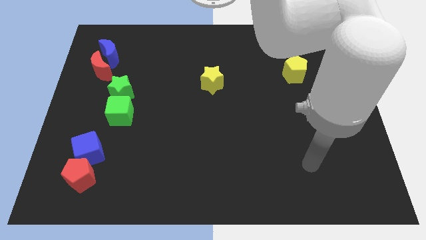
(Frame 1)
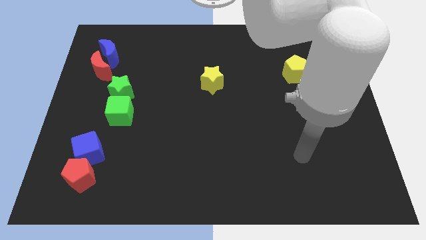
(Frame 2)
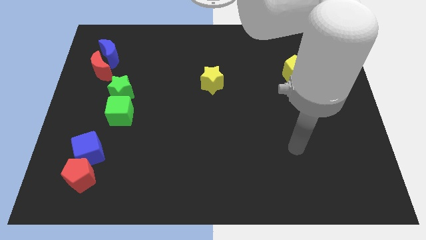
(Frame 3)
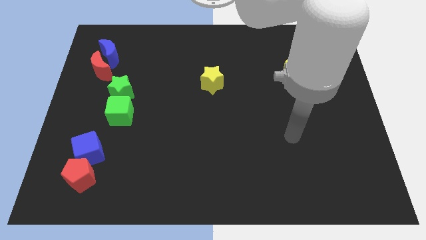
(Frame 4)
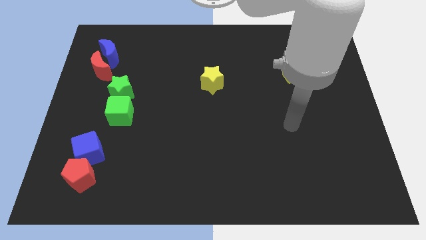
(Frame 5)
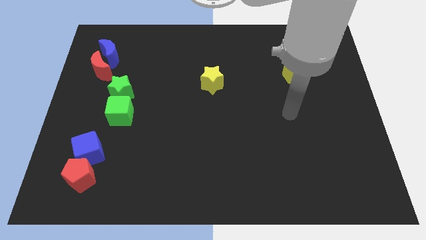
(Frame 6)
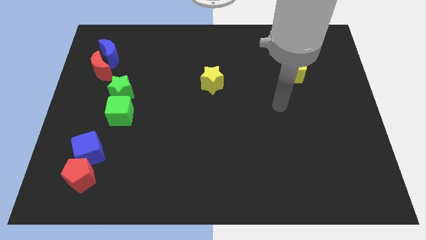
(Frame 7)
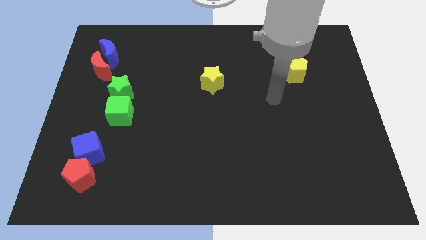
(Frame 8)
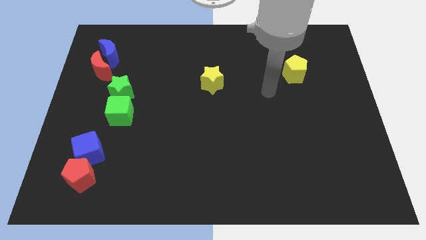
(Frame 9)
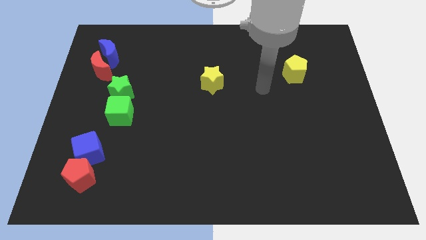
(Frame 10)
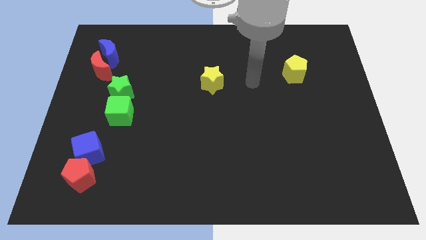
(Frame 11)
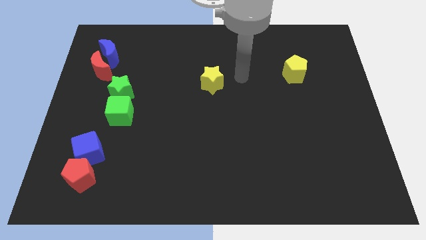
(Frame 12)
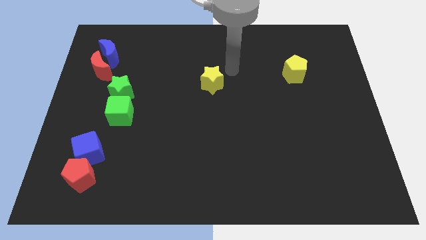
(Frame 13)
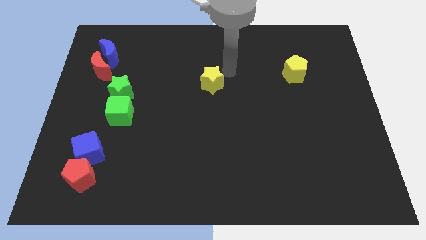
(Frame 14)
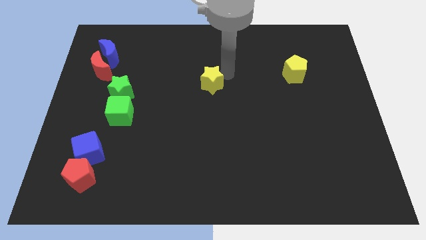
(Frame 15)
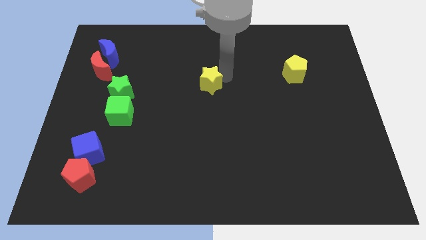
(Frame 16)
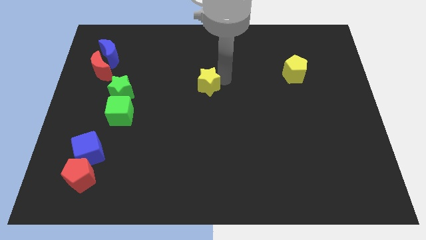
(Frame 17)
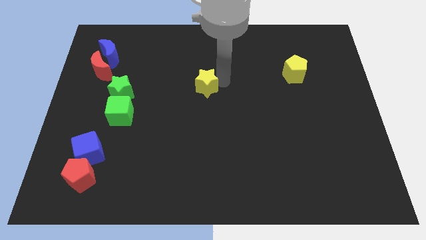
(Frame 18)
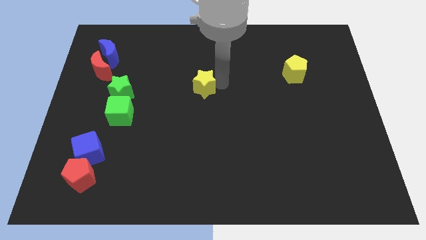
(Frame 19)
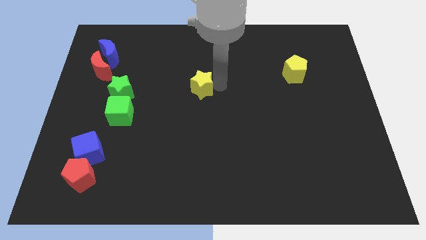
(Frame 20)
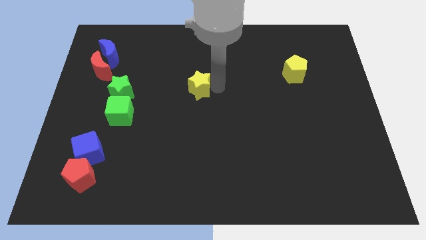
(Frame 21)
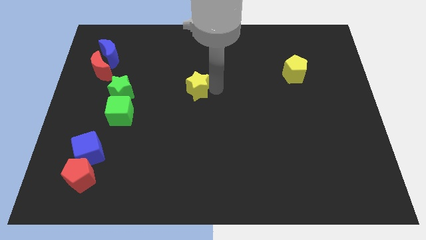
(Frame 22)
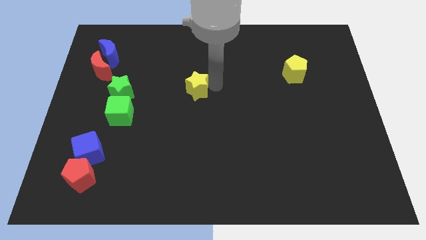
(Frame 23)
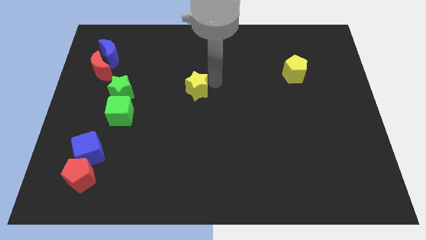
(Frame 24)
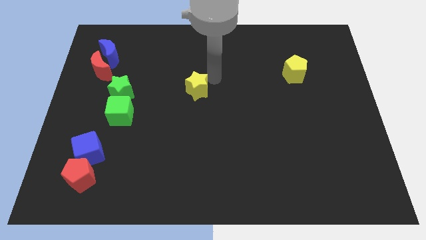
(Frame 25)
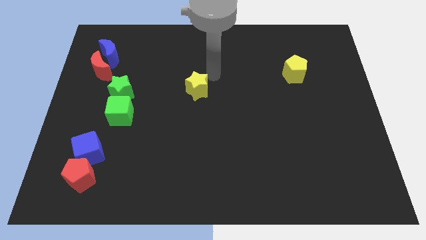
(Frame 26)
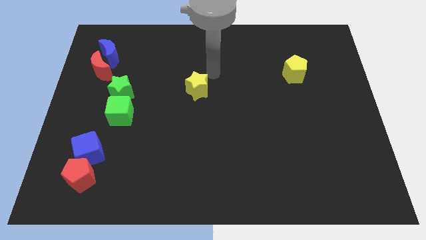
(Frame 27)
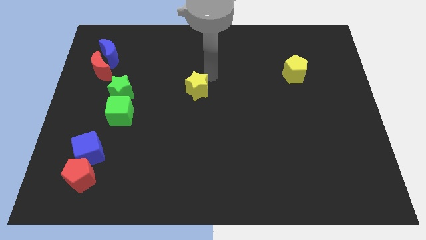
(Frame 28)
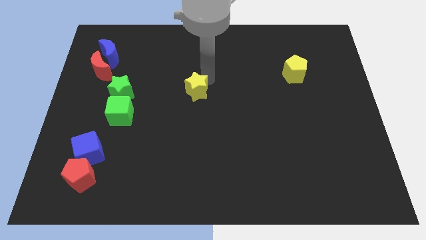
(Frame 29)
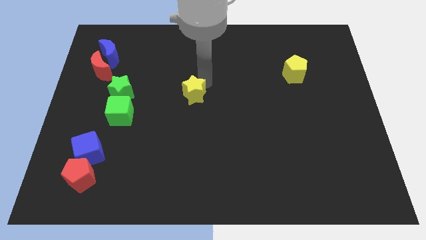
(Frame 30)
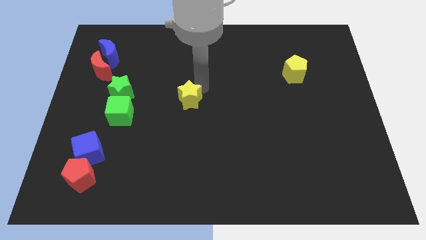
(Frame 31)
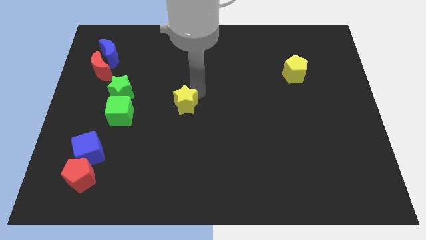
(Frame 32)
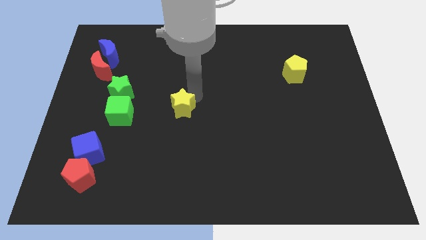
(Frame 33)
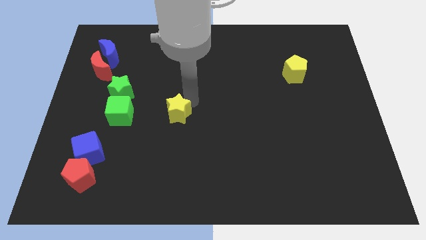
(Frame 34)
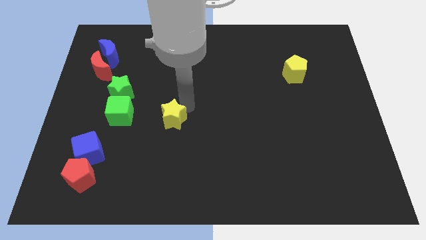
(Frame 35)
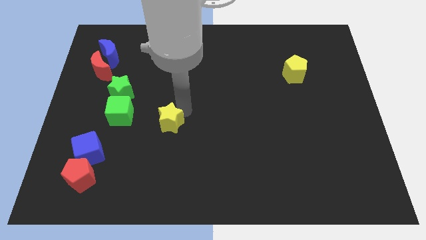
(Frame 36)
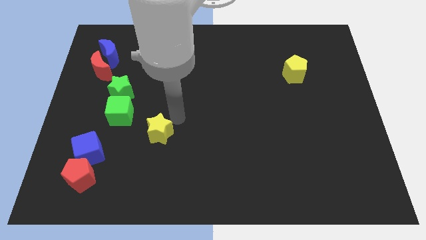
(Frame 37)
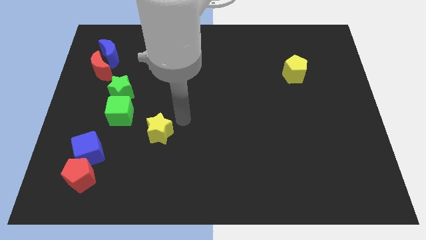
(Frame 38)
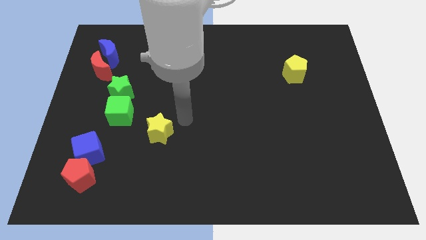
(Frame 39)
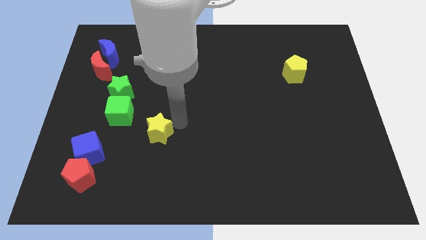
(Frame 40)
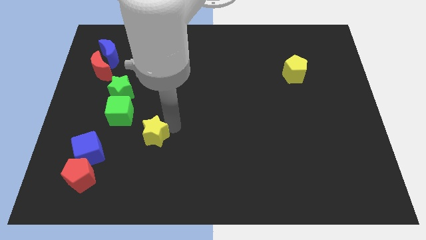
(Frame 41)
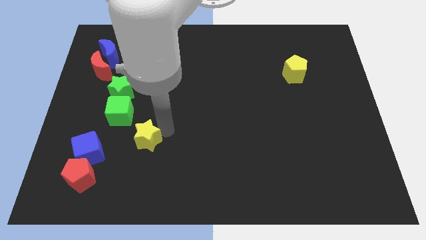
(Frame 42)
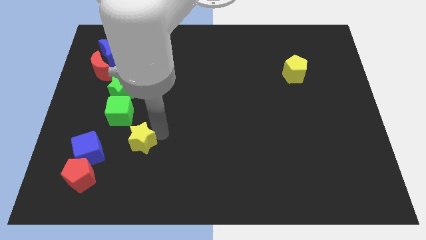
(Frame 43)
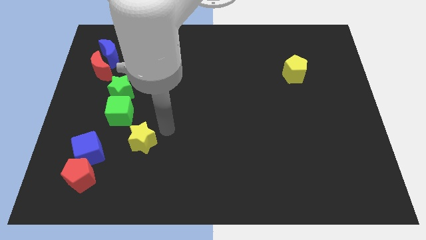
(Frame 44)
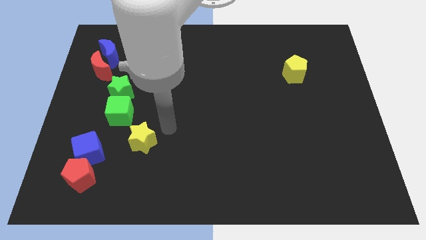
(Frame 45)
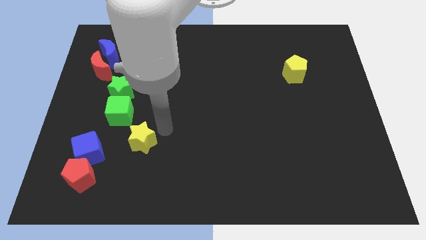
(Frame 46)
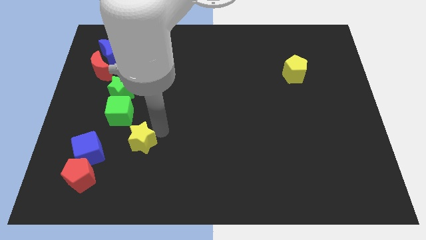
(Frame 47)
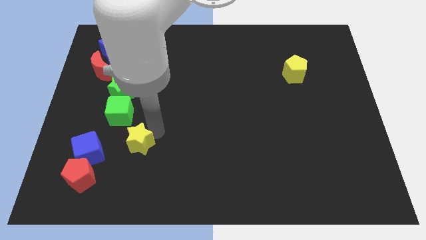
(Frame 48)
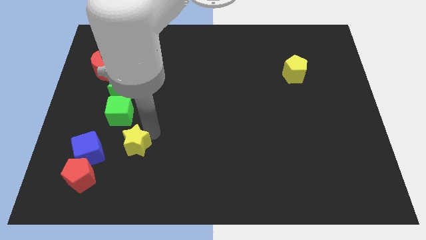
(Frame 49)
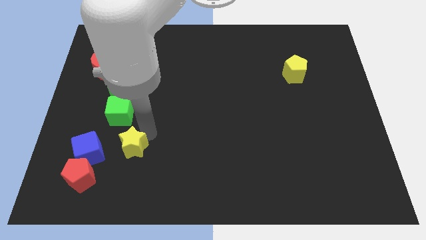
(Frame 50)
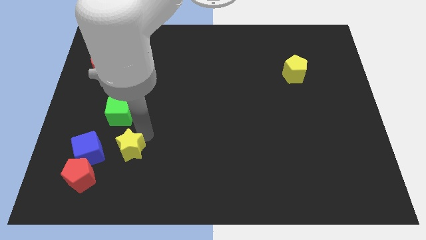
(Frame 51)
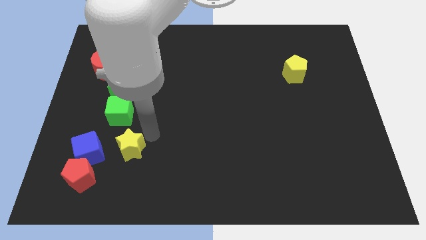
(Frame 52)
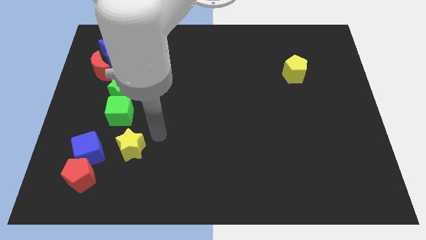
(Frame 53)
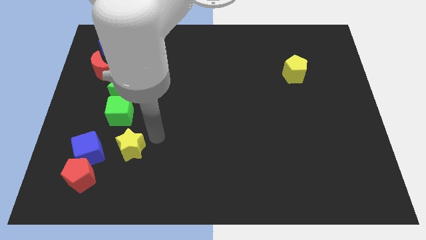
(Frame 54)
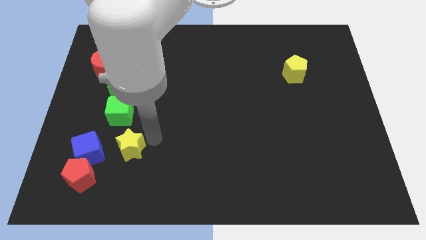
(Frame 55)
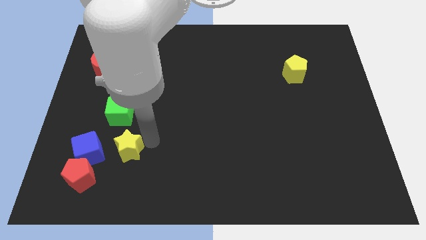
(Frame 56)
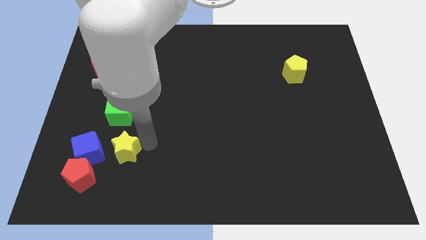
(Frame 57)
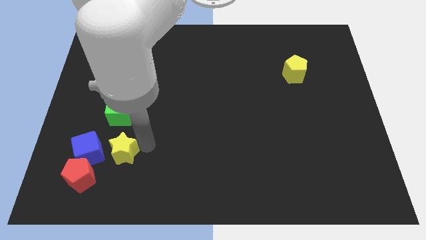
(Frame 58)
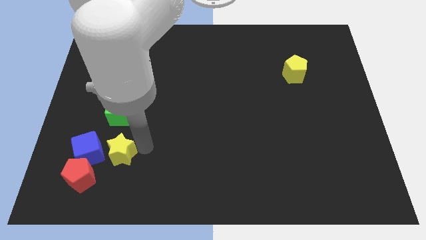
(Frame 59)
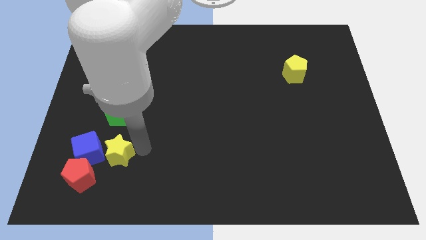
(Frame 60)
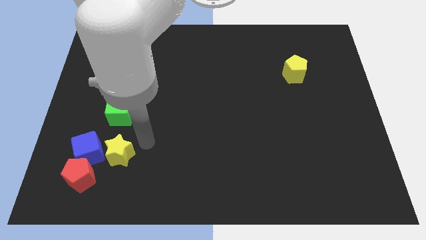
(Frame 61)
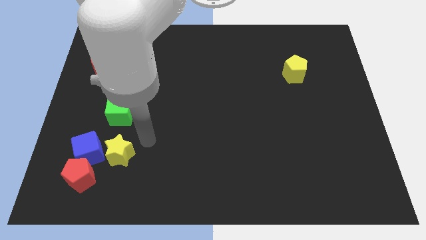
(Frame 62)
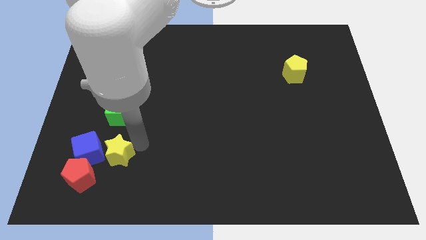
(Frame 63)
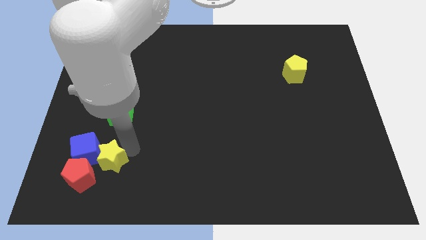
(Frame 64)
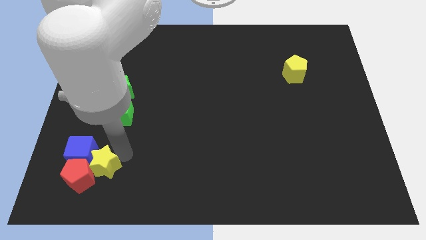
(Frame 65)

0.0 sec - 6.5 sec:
slide the yellow star to the red pentagon
